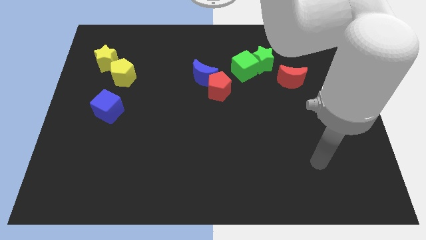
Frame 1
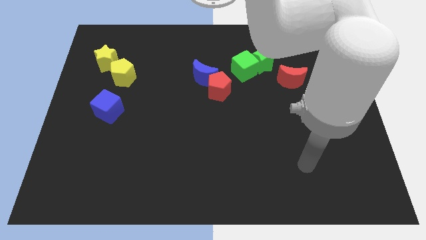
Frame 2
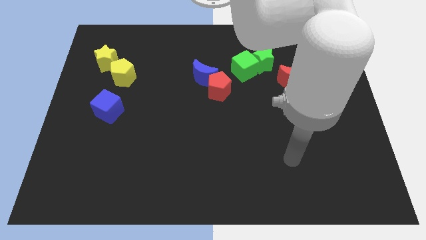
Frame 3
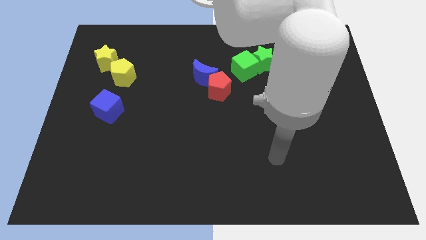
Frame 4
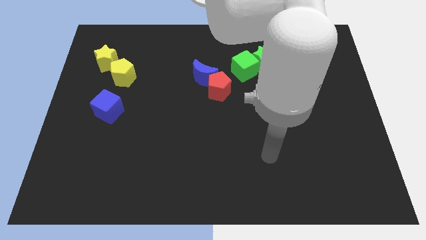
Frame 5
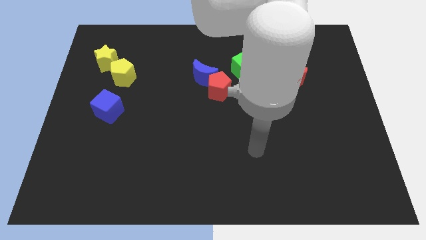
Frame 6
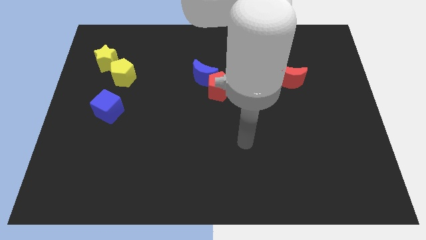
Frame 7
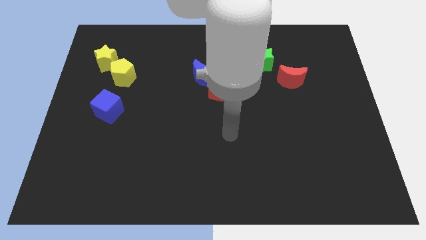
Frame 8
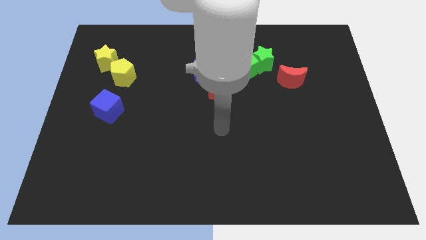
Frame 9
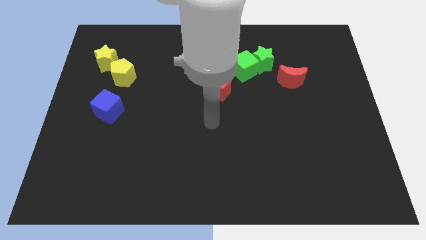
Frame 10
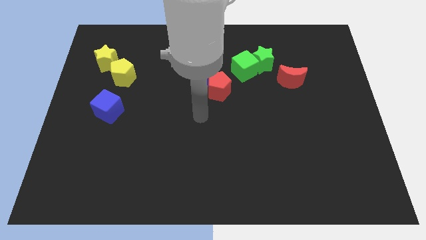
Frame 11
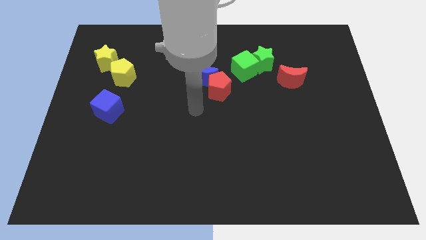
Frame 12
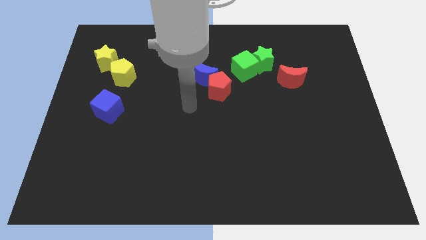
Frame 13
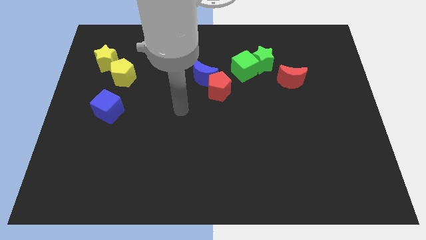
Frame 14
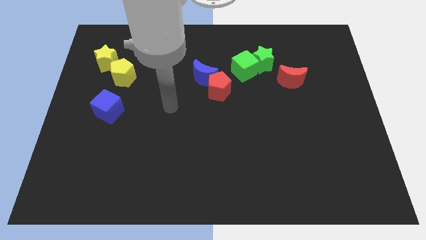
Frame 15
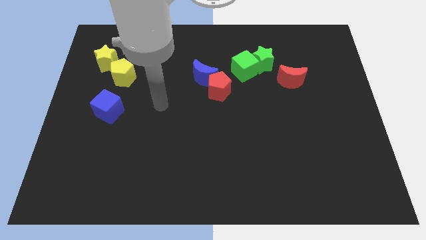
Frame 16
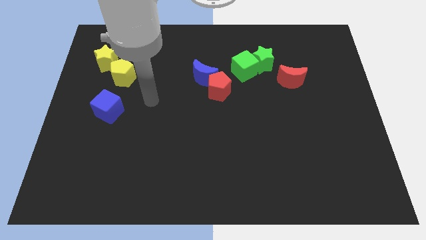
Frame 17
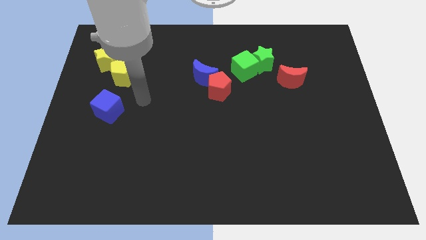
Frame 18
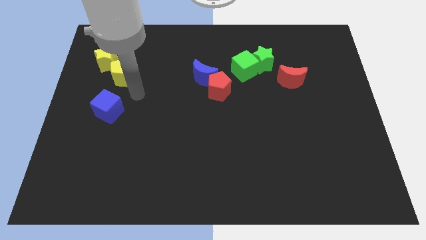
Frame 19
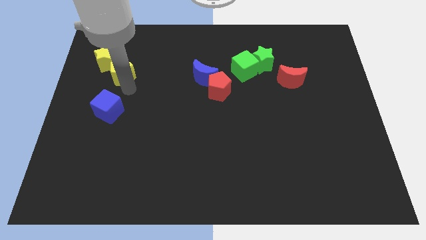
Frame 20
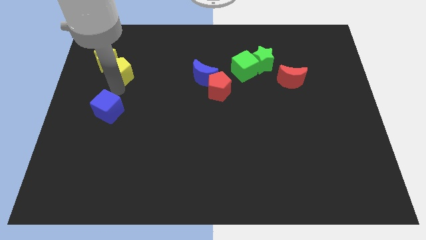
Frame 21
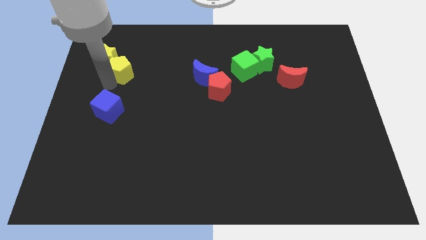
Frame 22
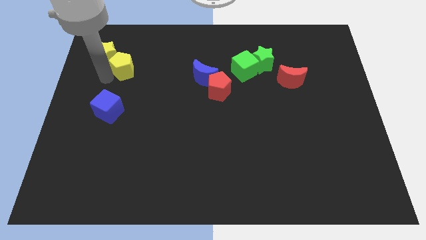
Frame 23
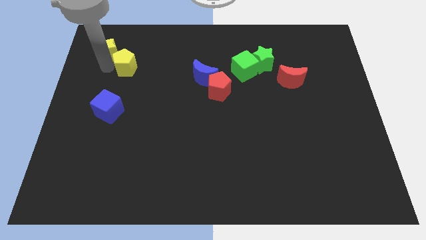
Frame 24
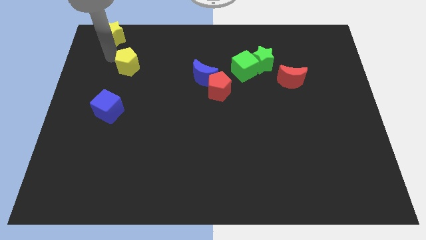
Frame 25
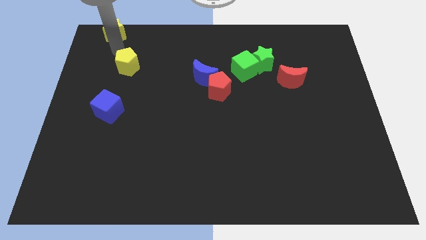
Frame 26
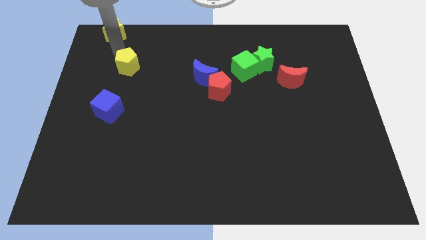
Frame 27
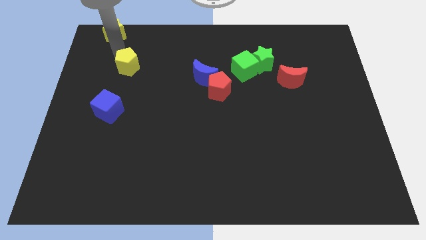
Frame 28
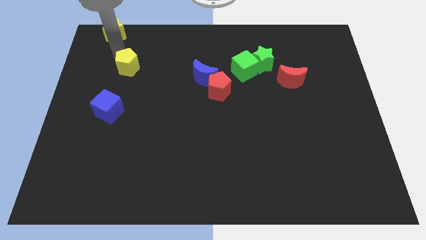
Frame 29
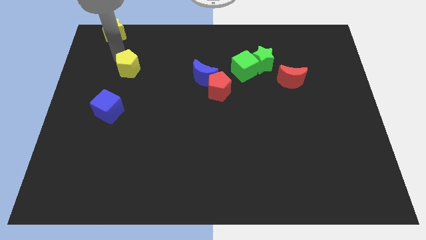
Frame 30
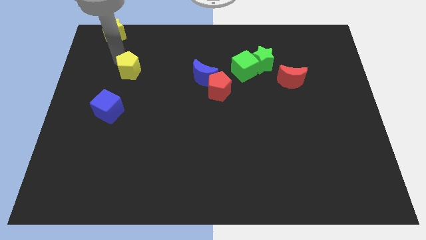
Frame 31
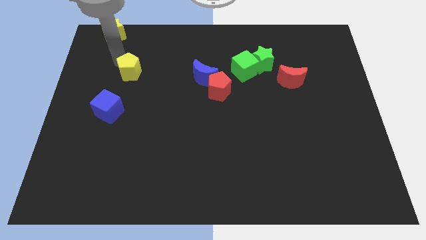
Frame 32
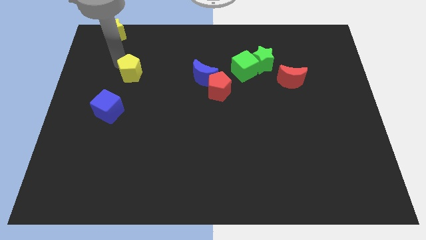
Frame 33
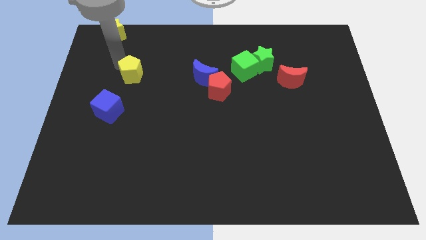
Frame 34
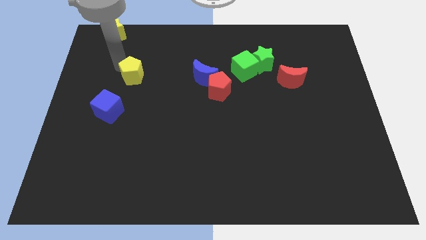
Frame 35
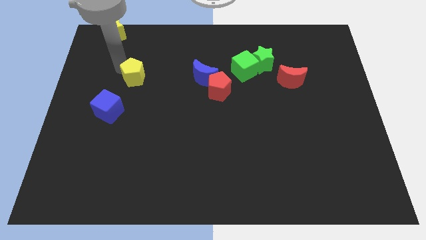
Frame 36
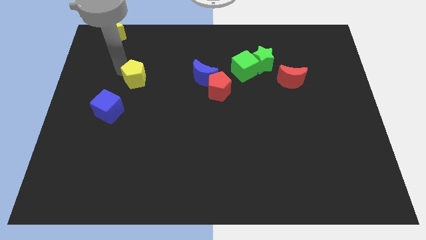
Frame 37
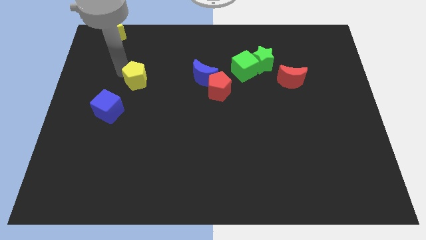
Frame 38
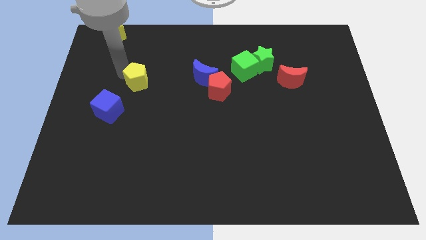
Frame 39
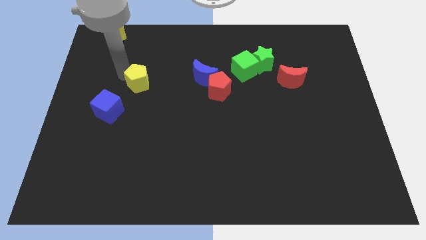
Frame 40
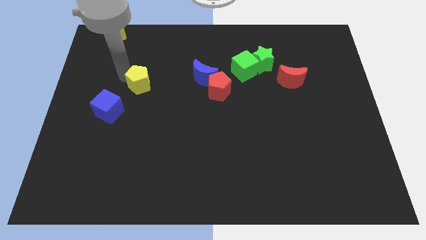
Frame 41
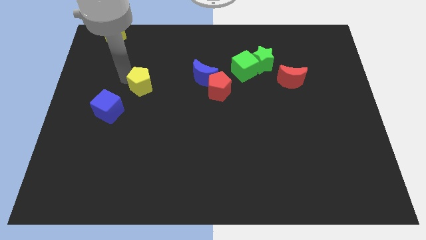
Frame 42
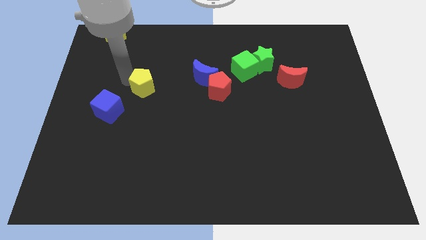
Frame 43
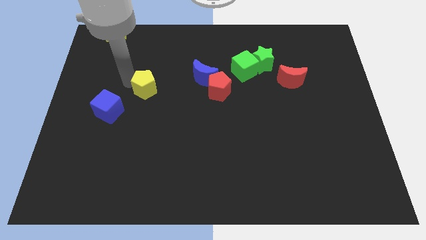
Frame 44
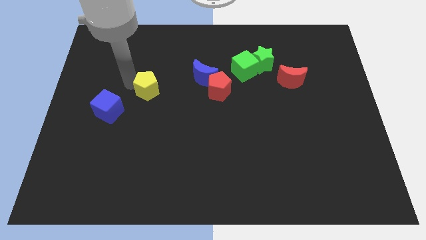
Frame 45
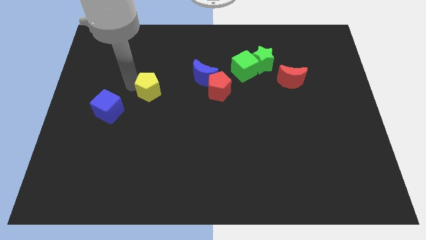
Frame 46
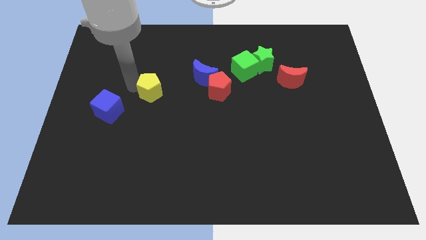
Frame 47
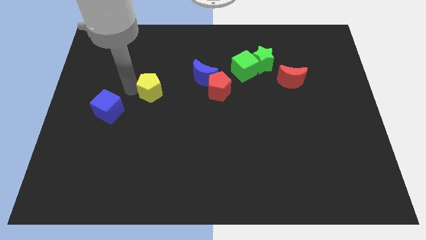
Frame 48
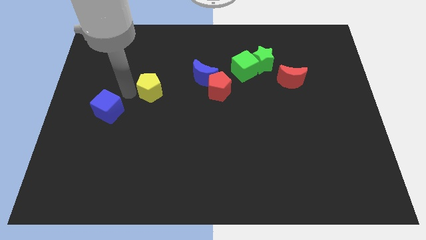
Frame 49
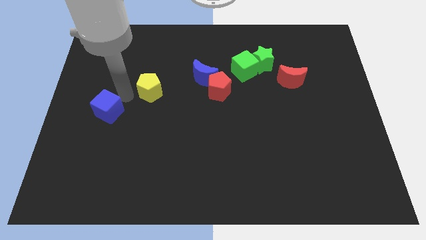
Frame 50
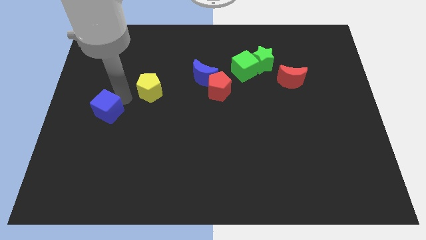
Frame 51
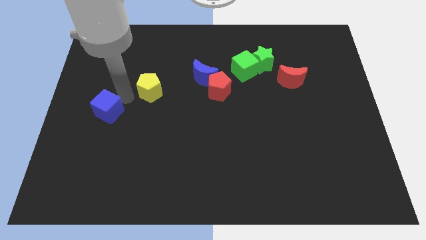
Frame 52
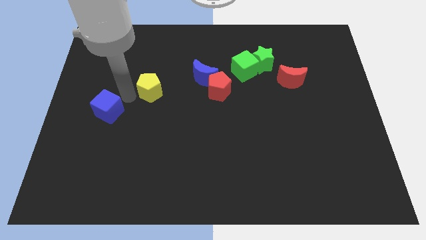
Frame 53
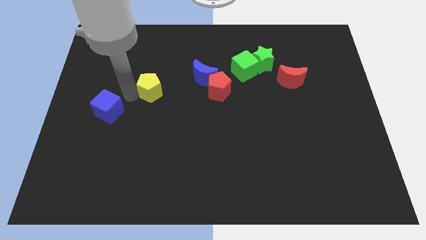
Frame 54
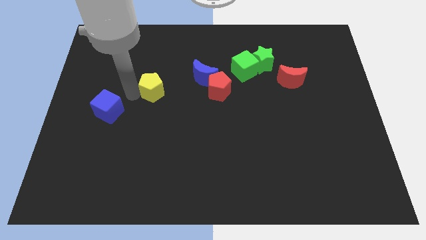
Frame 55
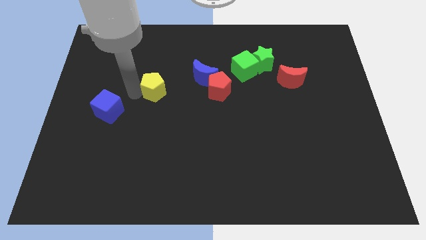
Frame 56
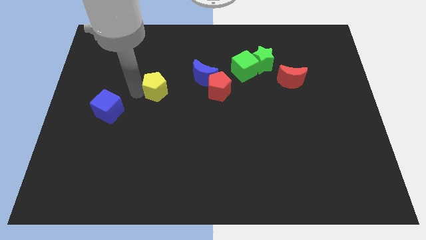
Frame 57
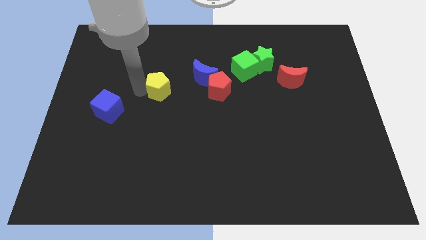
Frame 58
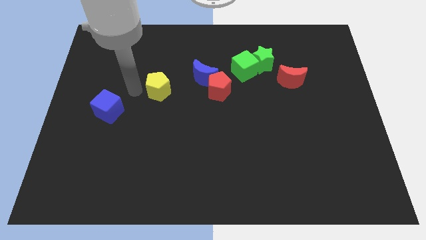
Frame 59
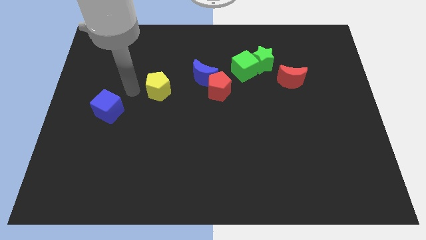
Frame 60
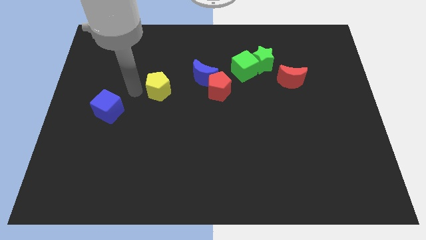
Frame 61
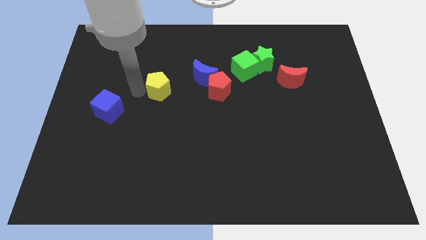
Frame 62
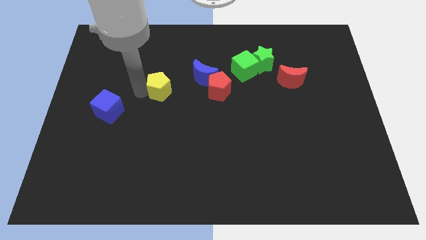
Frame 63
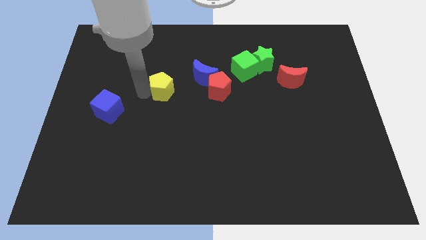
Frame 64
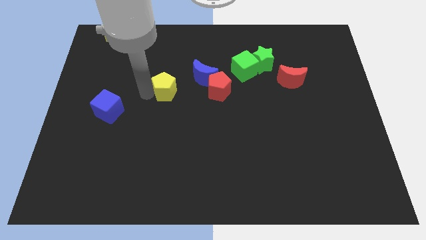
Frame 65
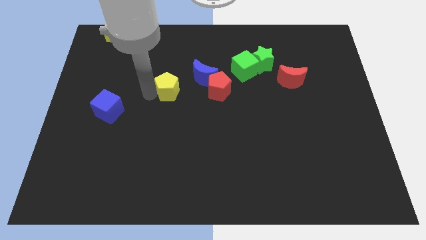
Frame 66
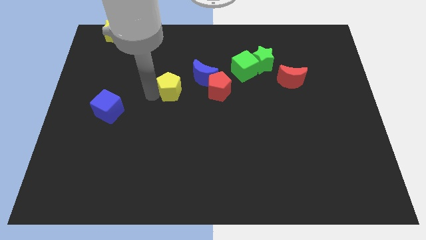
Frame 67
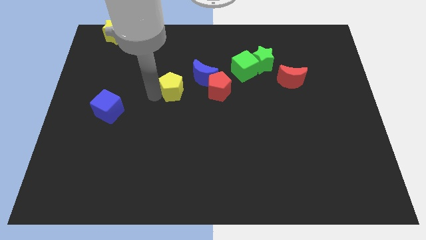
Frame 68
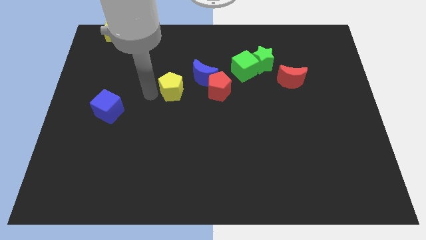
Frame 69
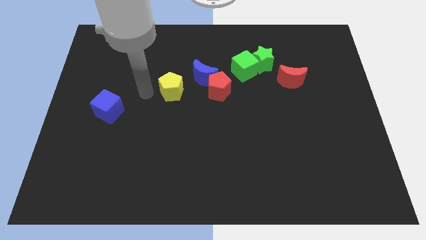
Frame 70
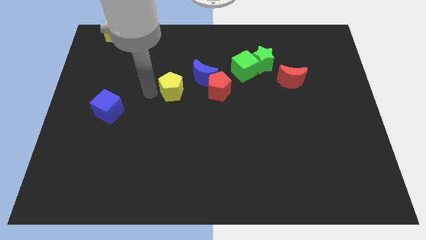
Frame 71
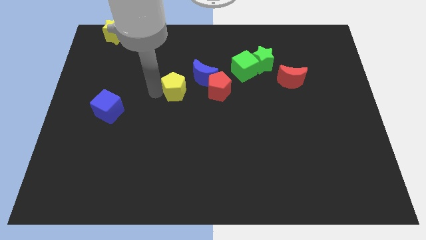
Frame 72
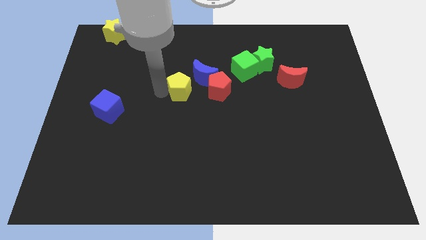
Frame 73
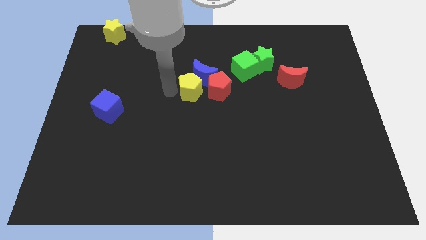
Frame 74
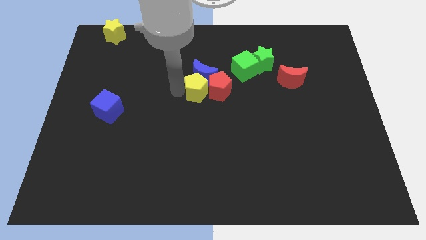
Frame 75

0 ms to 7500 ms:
put the yellow pentagon to the red pentagon
